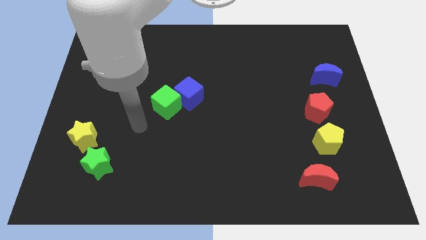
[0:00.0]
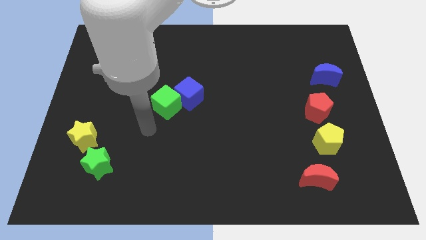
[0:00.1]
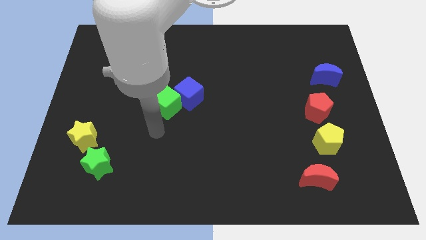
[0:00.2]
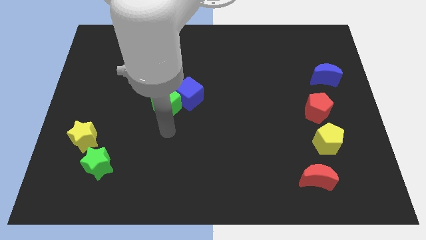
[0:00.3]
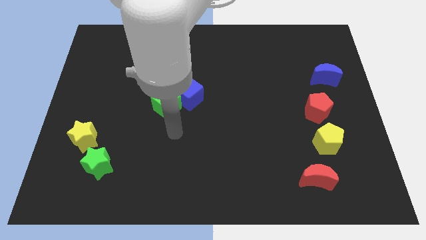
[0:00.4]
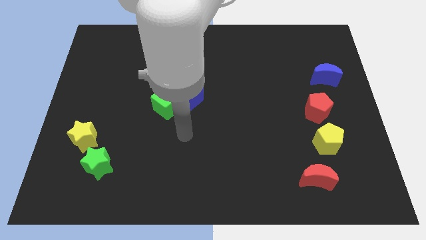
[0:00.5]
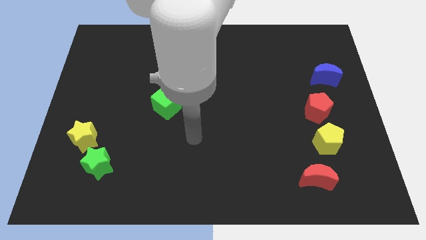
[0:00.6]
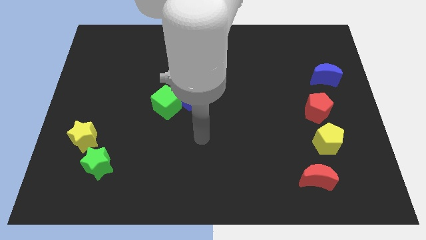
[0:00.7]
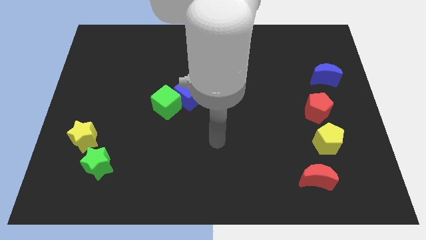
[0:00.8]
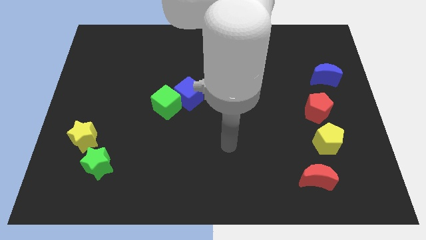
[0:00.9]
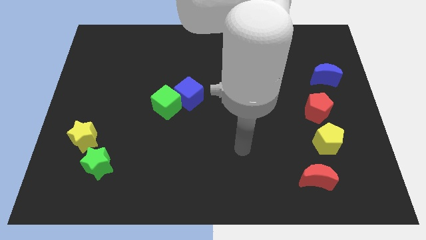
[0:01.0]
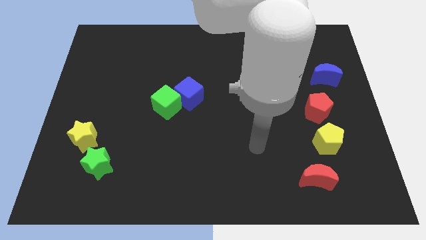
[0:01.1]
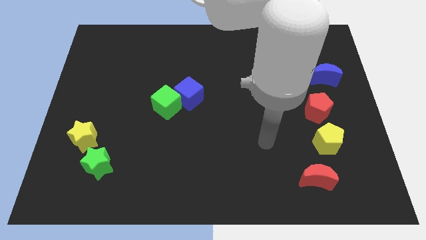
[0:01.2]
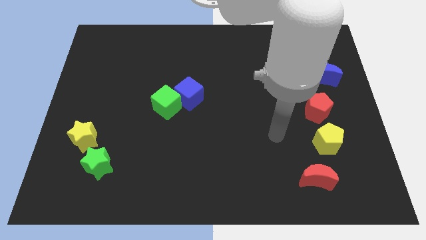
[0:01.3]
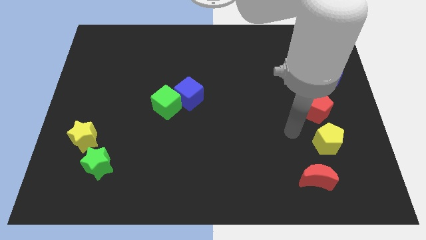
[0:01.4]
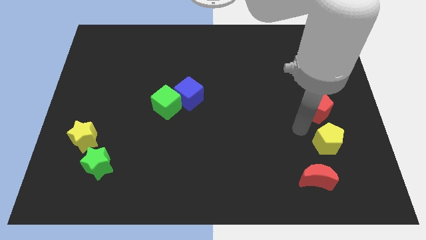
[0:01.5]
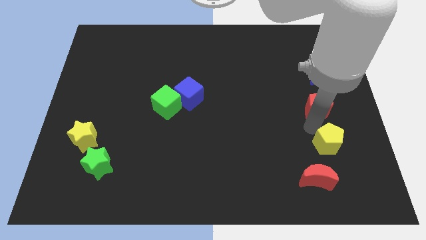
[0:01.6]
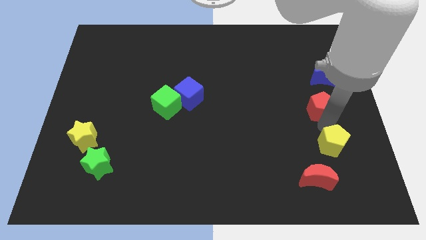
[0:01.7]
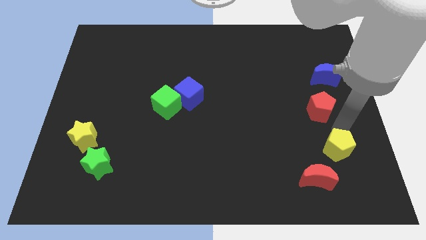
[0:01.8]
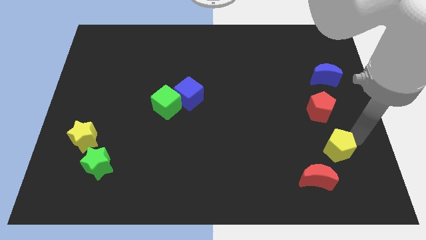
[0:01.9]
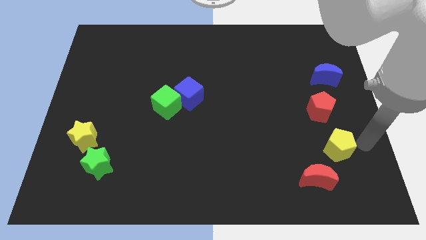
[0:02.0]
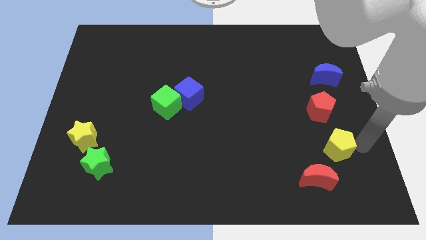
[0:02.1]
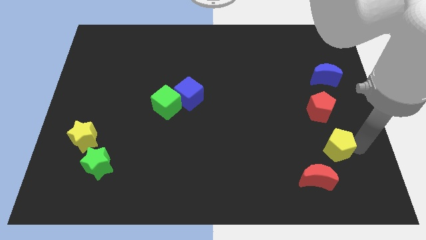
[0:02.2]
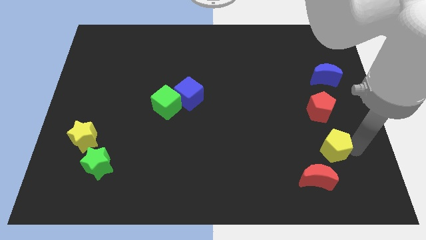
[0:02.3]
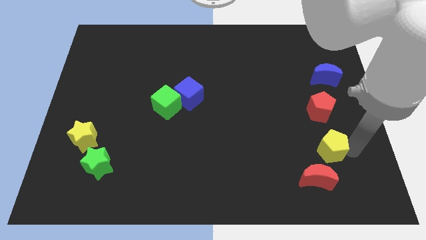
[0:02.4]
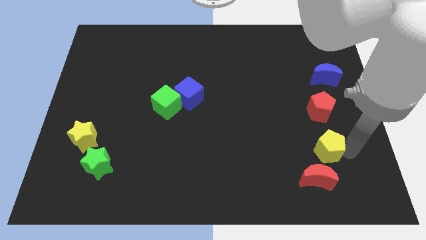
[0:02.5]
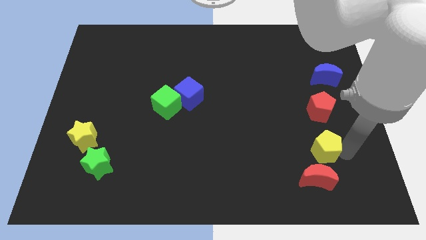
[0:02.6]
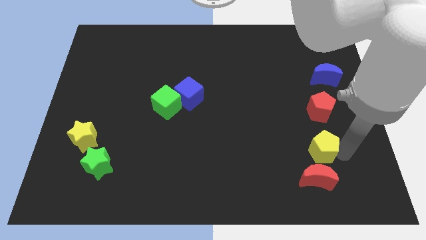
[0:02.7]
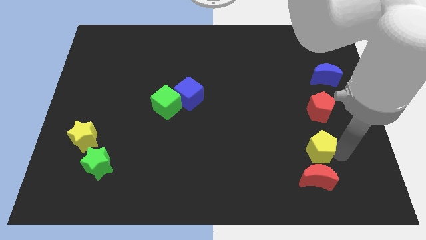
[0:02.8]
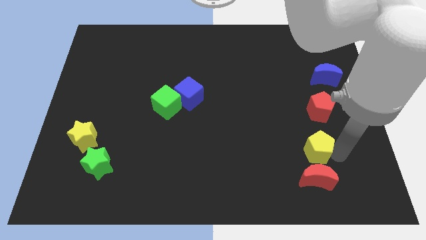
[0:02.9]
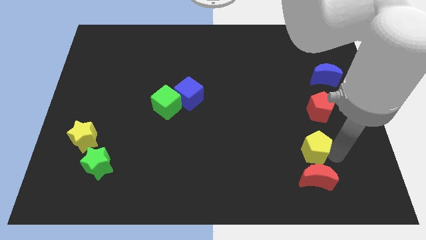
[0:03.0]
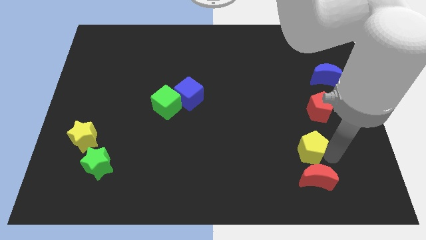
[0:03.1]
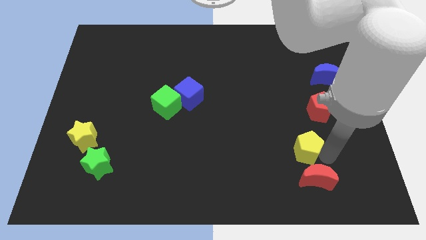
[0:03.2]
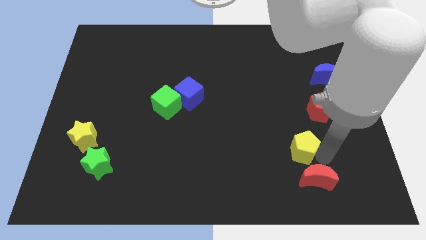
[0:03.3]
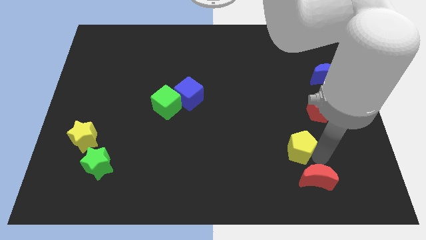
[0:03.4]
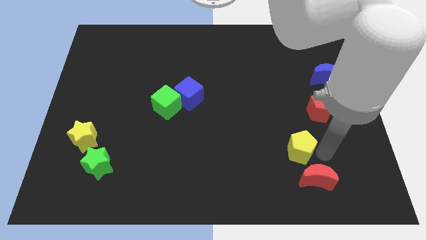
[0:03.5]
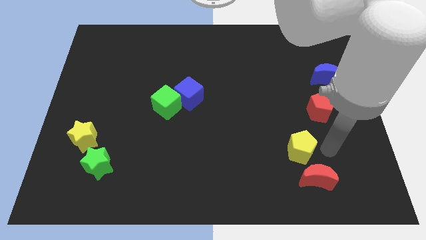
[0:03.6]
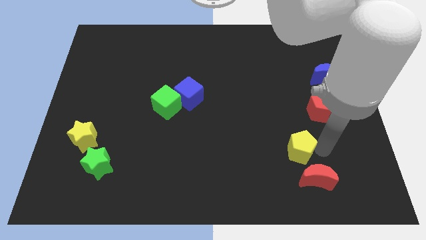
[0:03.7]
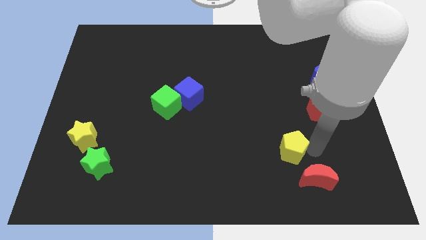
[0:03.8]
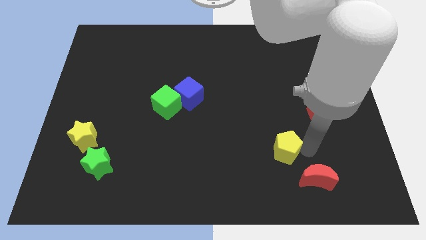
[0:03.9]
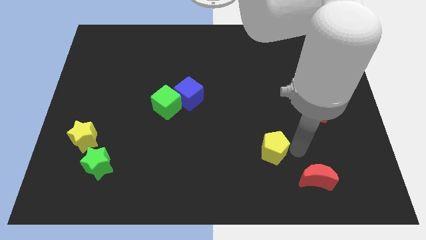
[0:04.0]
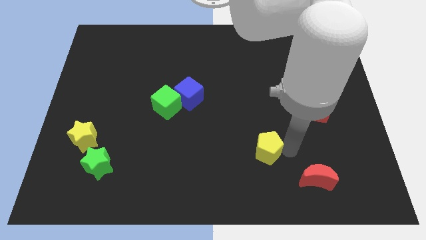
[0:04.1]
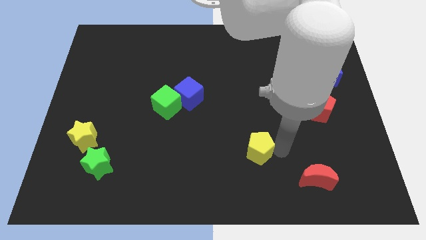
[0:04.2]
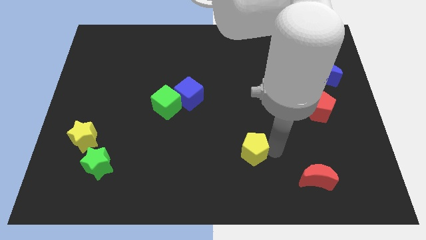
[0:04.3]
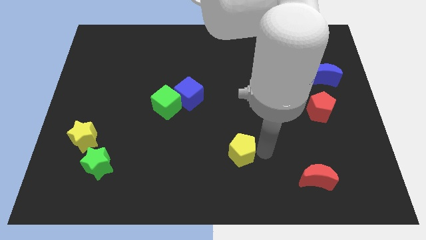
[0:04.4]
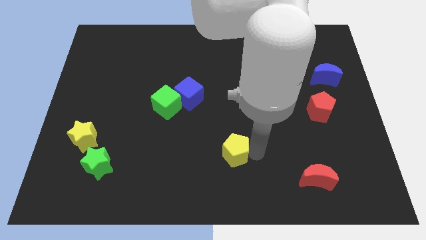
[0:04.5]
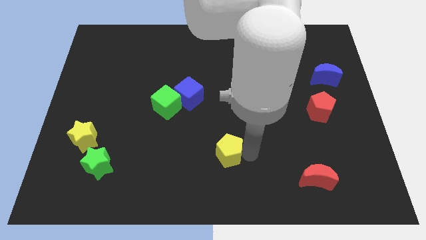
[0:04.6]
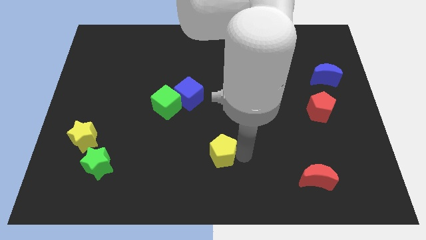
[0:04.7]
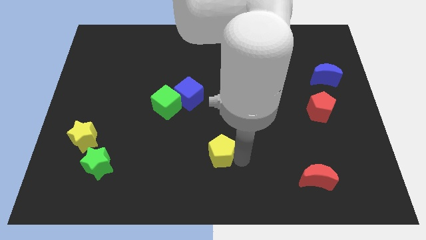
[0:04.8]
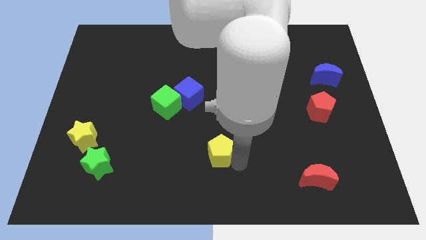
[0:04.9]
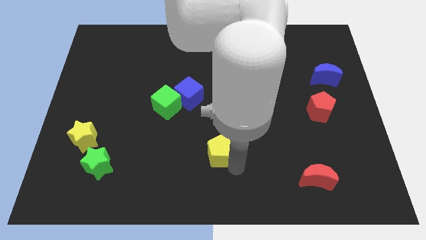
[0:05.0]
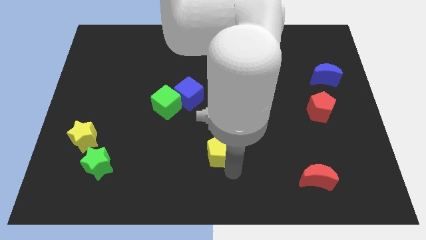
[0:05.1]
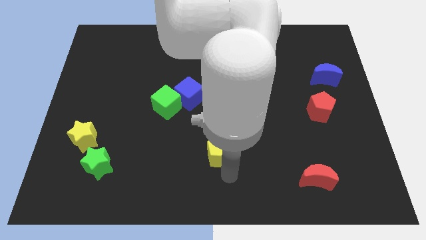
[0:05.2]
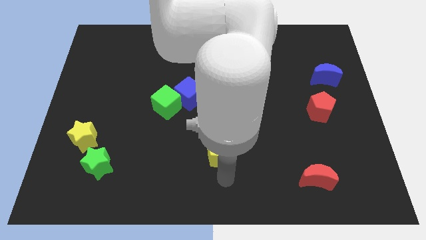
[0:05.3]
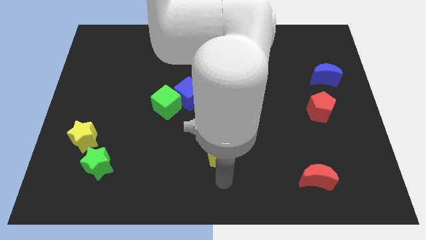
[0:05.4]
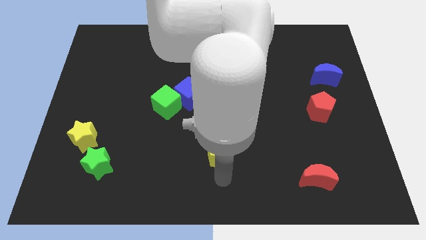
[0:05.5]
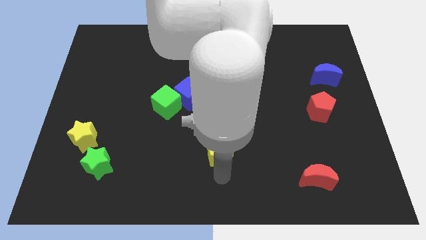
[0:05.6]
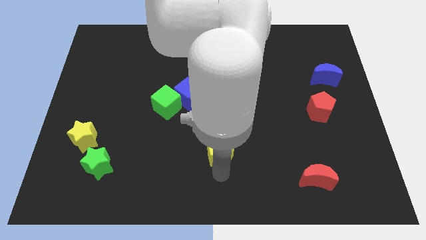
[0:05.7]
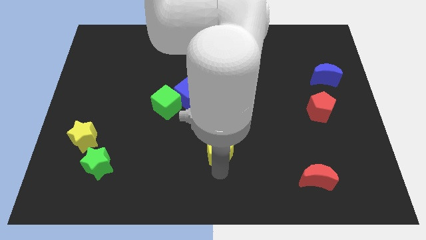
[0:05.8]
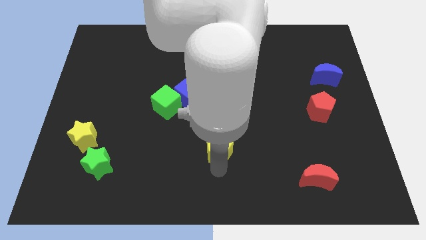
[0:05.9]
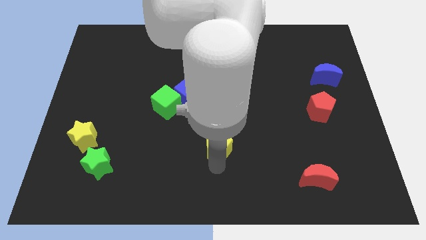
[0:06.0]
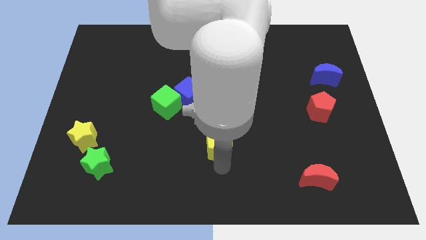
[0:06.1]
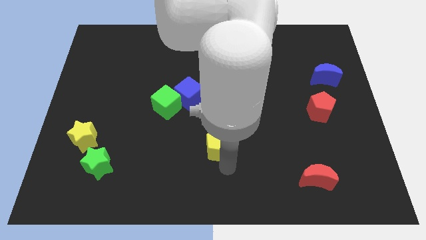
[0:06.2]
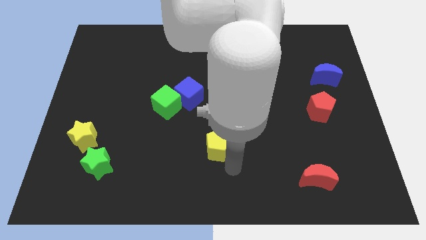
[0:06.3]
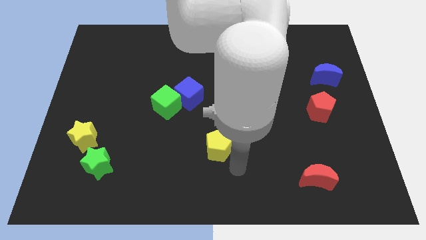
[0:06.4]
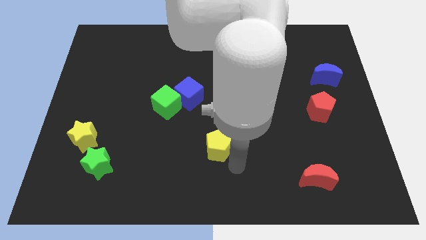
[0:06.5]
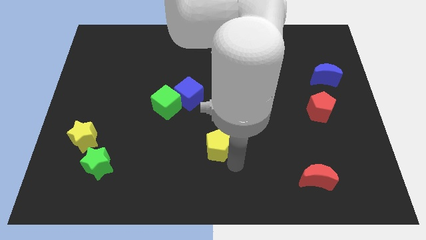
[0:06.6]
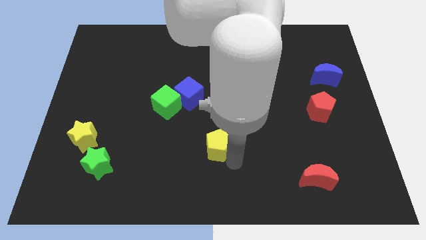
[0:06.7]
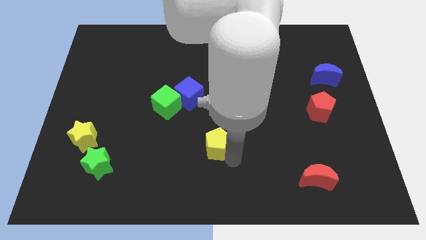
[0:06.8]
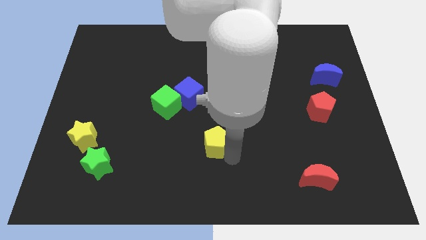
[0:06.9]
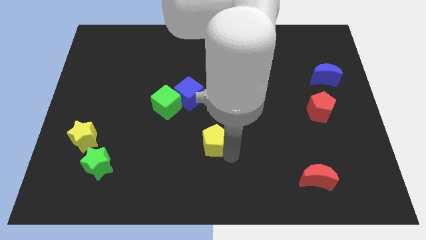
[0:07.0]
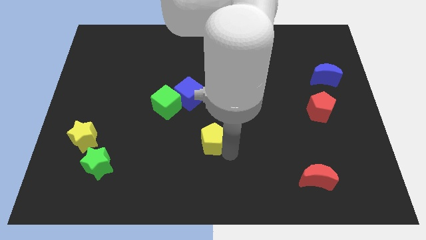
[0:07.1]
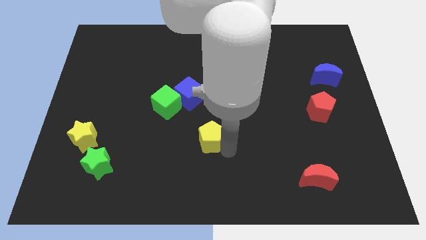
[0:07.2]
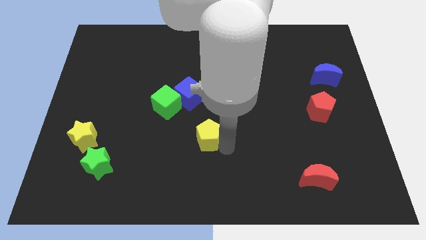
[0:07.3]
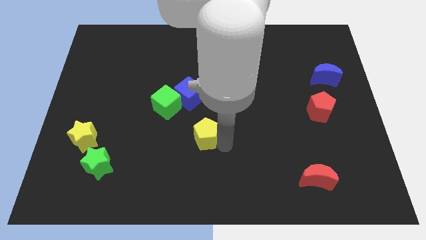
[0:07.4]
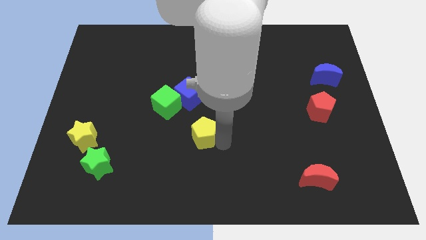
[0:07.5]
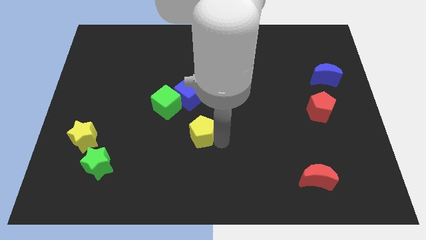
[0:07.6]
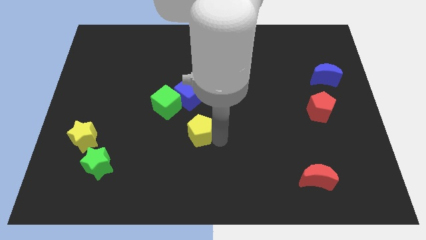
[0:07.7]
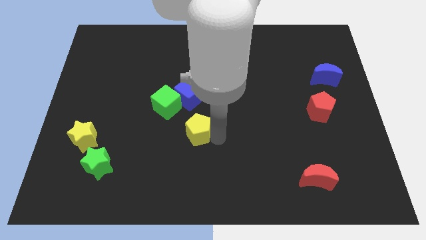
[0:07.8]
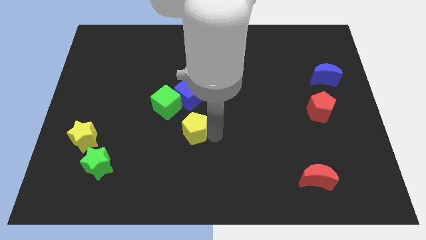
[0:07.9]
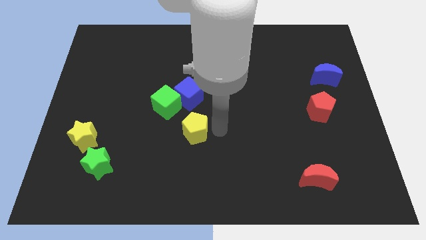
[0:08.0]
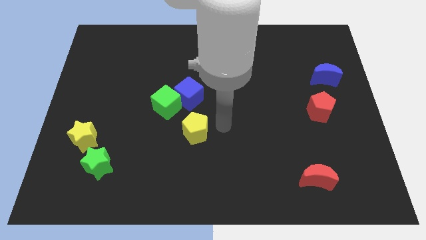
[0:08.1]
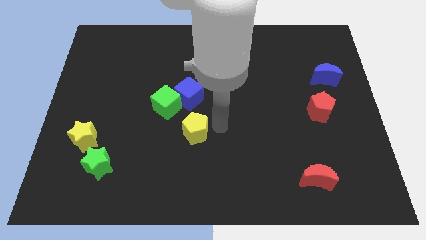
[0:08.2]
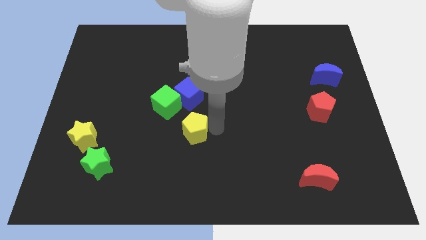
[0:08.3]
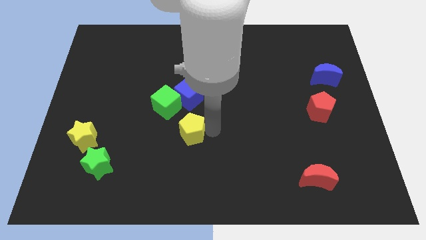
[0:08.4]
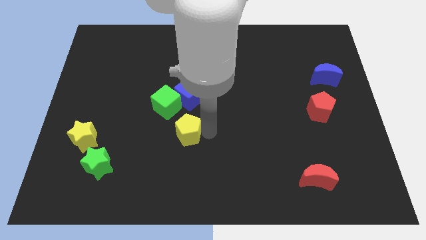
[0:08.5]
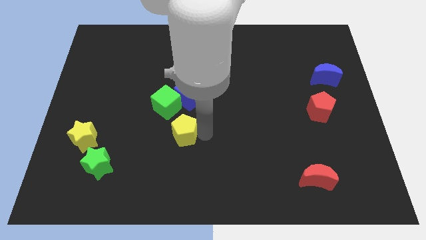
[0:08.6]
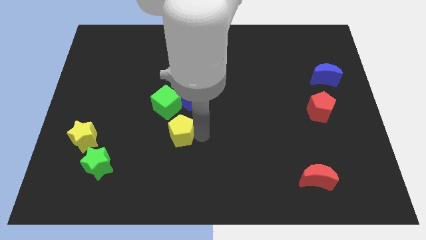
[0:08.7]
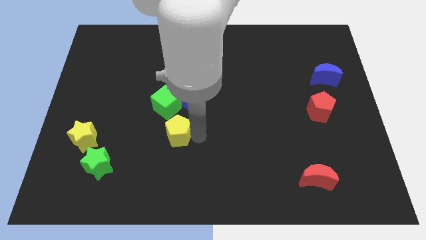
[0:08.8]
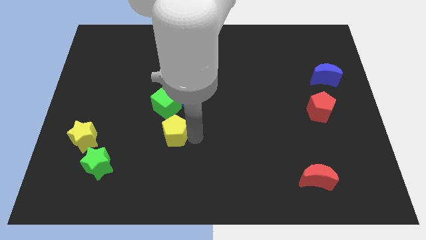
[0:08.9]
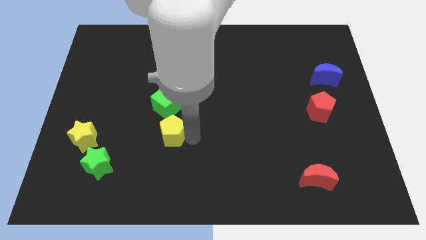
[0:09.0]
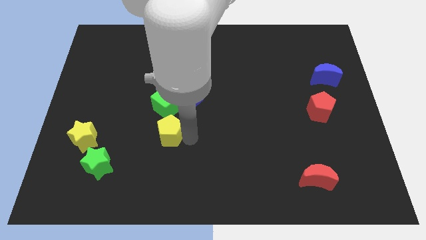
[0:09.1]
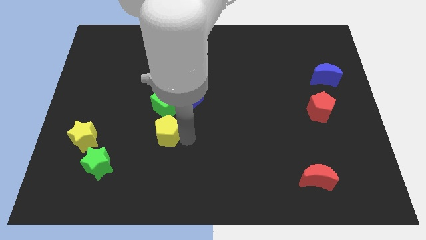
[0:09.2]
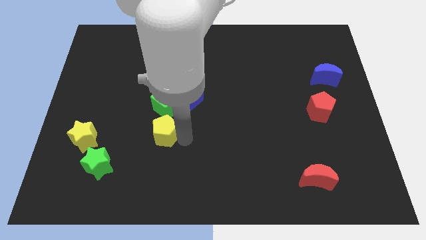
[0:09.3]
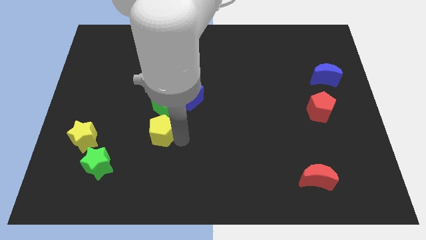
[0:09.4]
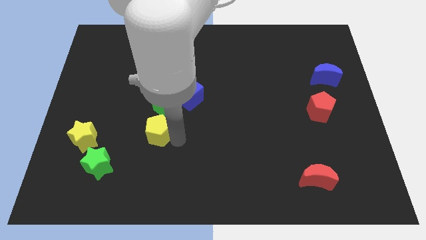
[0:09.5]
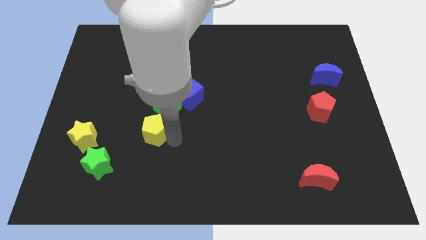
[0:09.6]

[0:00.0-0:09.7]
put the yellow pentagon right of the yellow star
